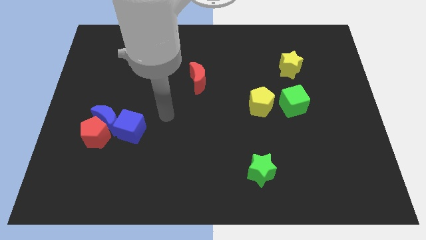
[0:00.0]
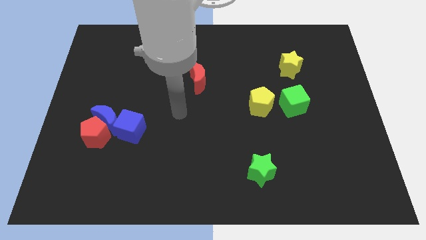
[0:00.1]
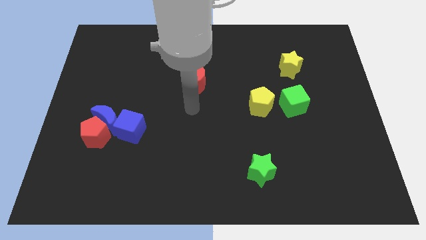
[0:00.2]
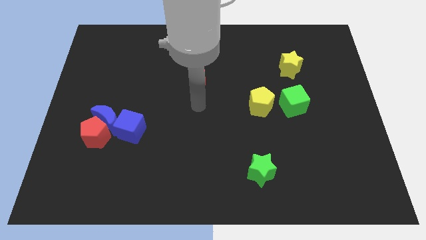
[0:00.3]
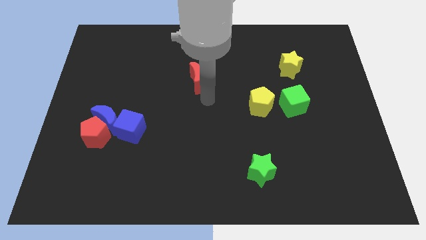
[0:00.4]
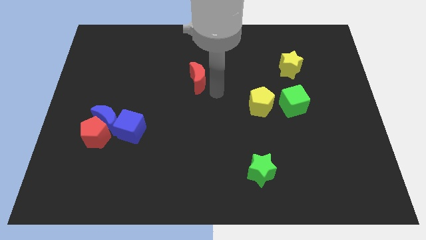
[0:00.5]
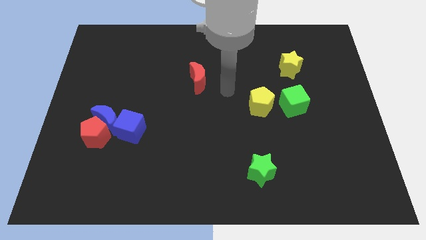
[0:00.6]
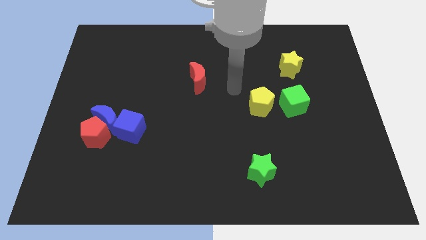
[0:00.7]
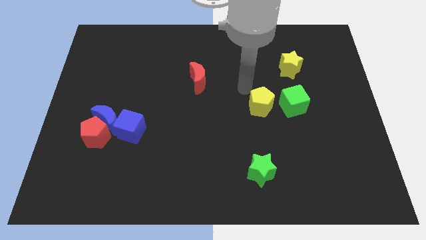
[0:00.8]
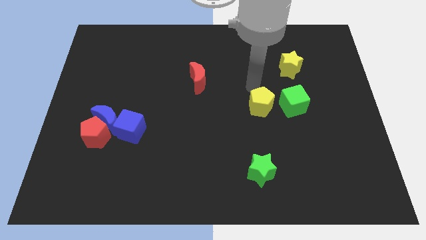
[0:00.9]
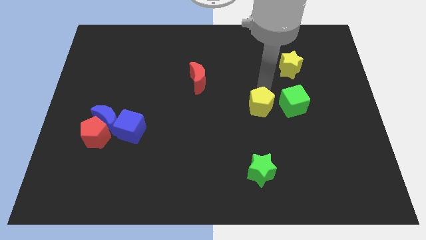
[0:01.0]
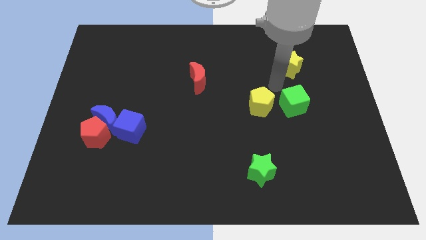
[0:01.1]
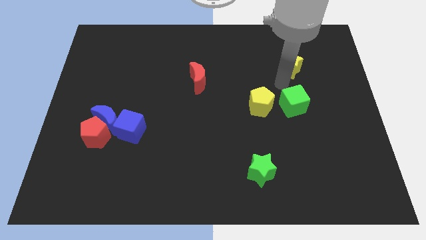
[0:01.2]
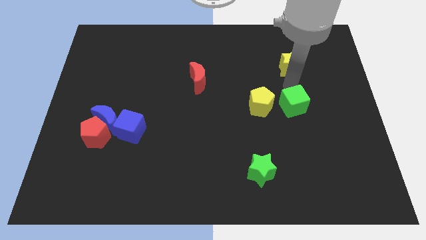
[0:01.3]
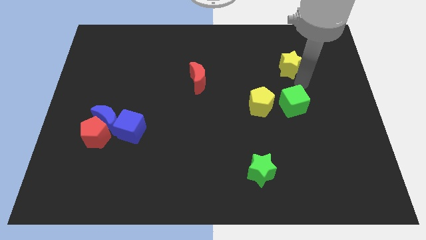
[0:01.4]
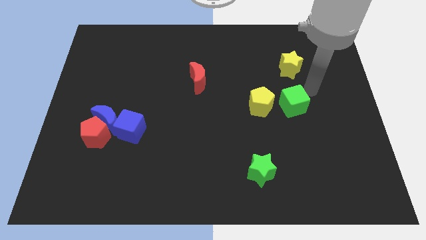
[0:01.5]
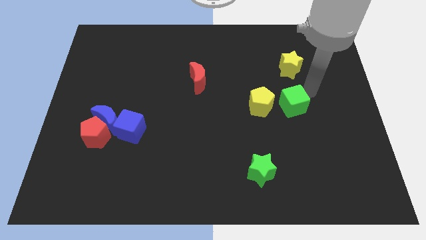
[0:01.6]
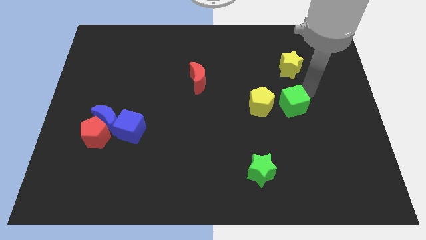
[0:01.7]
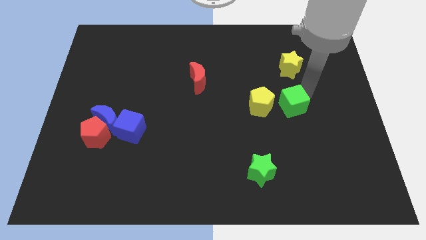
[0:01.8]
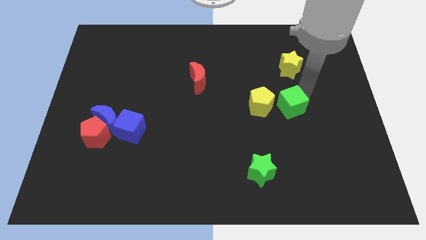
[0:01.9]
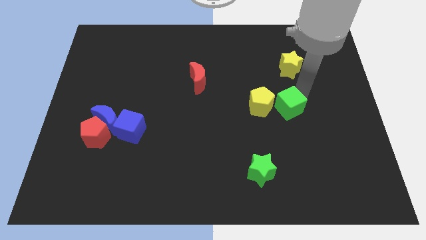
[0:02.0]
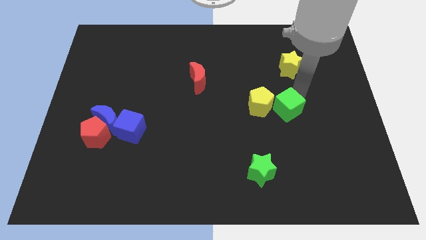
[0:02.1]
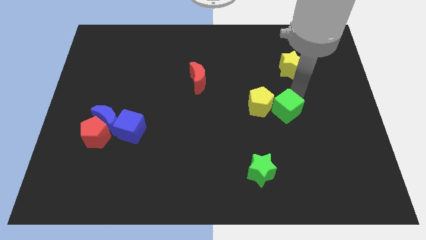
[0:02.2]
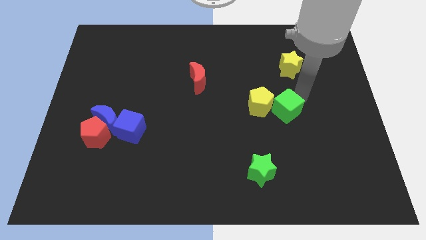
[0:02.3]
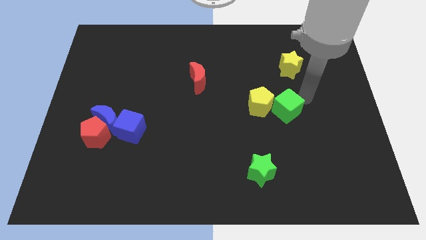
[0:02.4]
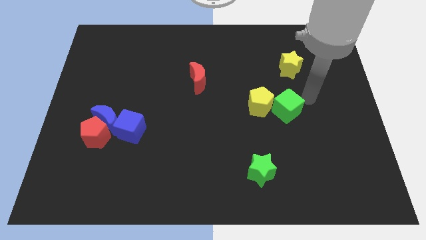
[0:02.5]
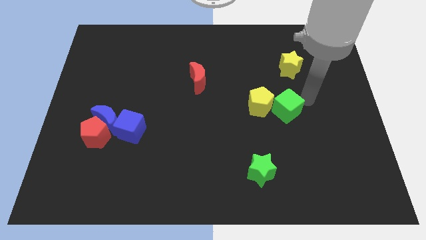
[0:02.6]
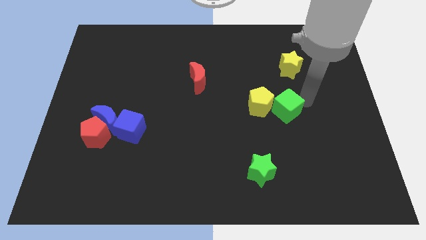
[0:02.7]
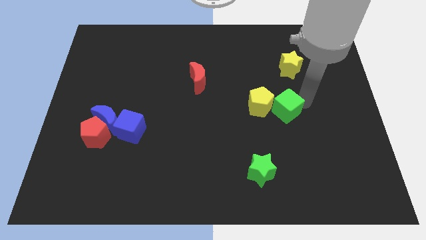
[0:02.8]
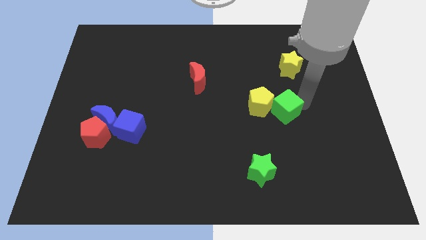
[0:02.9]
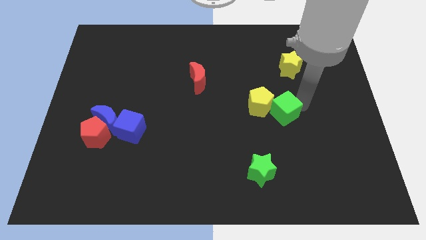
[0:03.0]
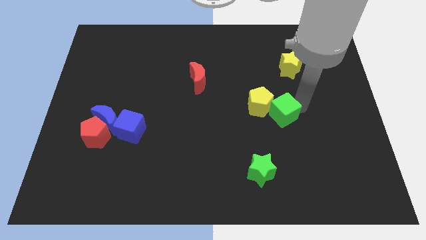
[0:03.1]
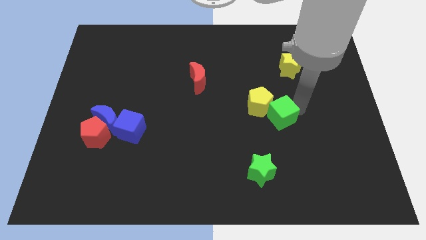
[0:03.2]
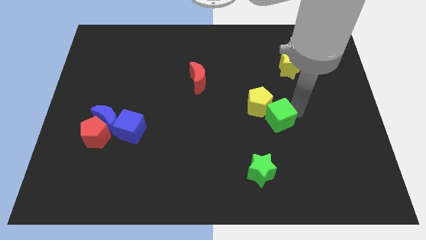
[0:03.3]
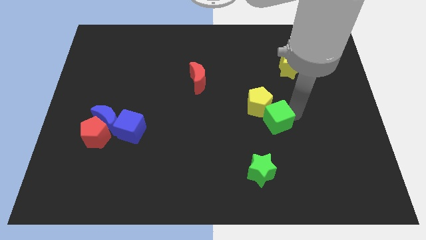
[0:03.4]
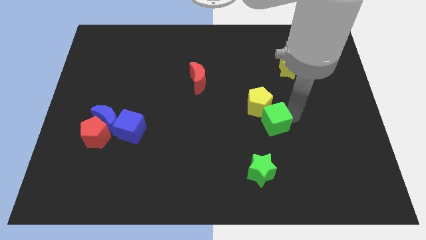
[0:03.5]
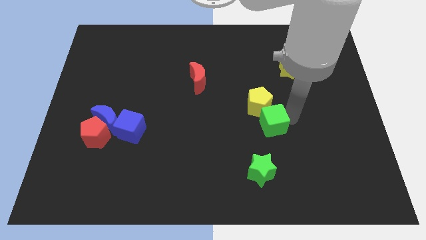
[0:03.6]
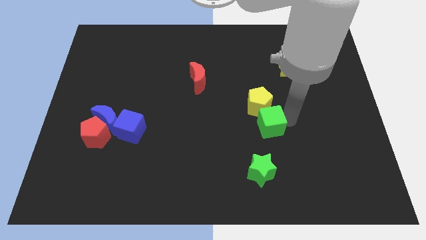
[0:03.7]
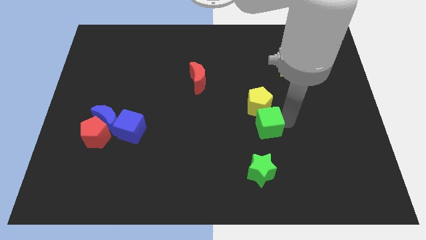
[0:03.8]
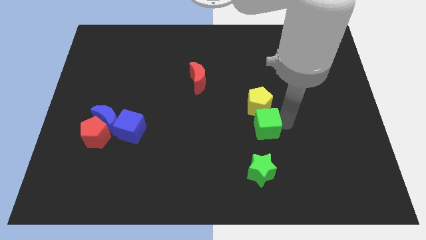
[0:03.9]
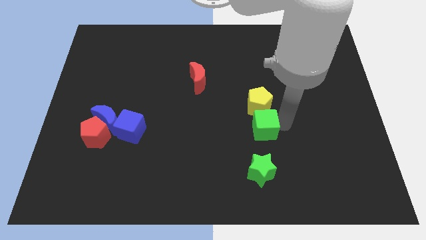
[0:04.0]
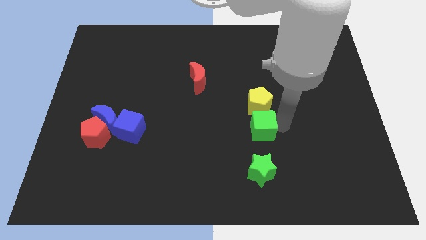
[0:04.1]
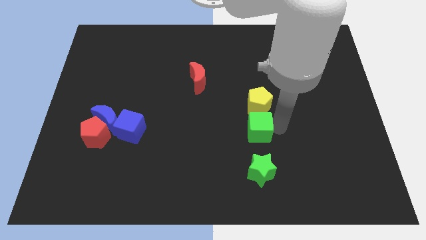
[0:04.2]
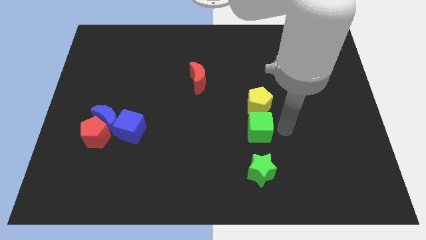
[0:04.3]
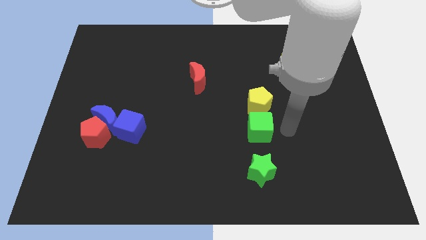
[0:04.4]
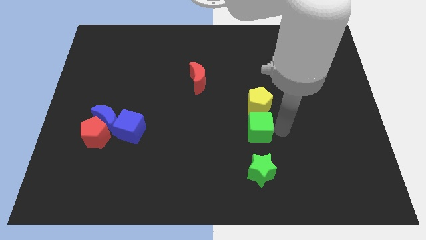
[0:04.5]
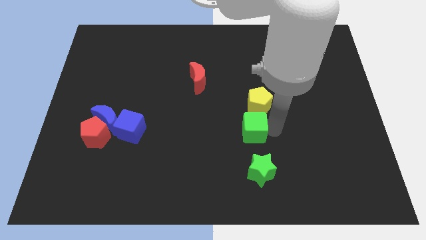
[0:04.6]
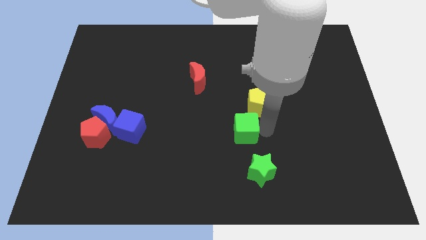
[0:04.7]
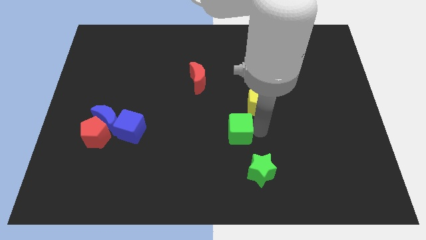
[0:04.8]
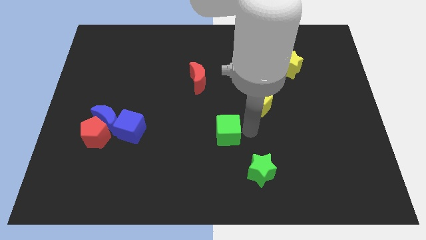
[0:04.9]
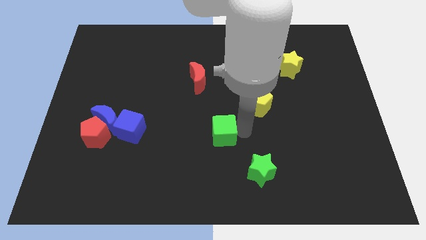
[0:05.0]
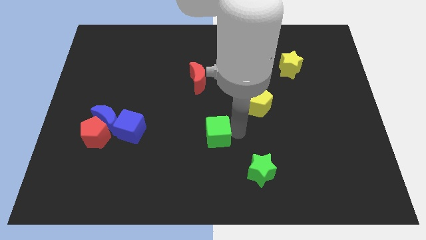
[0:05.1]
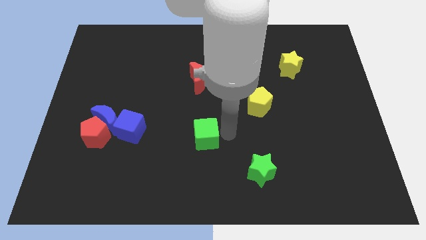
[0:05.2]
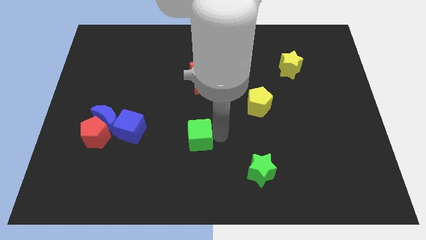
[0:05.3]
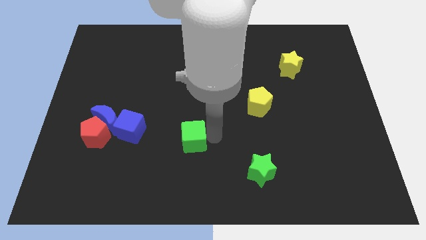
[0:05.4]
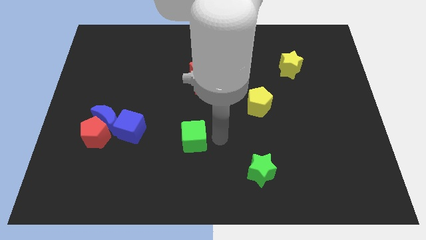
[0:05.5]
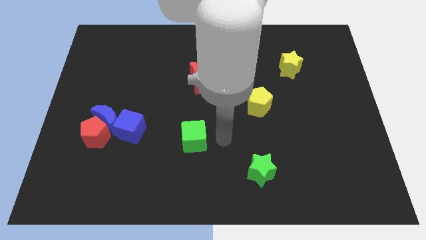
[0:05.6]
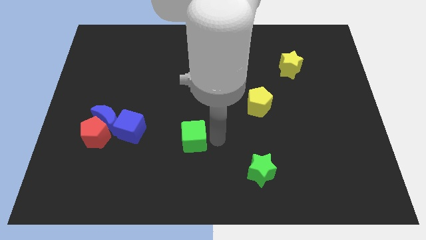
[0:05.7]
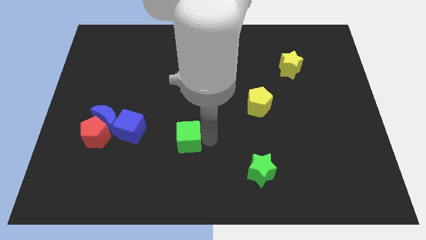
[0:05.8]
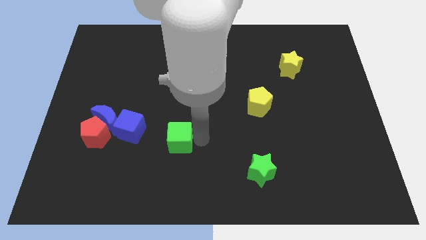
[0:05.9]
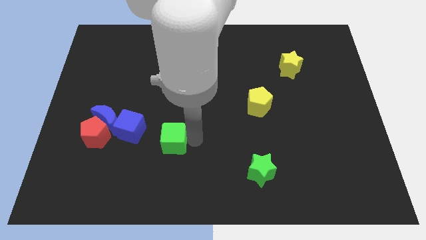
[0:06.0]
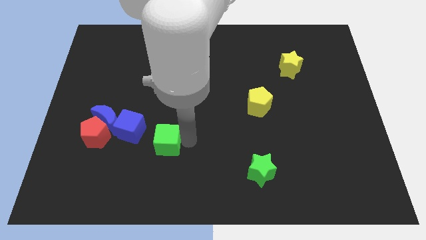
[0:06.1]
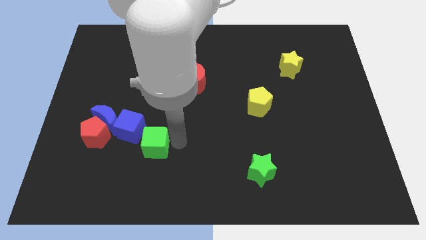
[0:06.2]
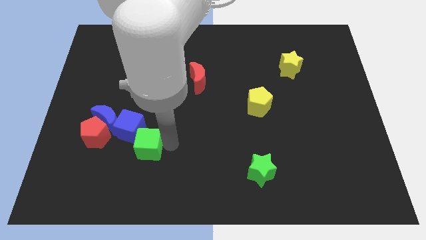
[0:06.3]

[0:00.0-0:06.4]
slide the green cube to the bottom right of the blue moon
